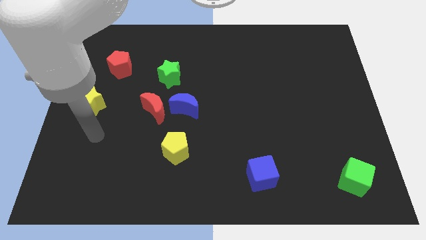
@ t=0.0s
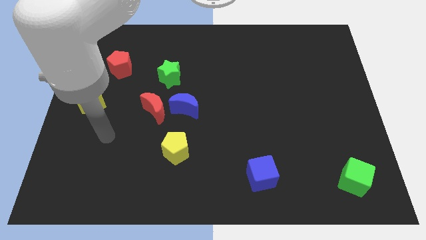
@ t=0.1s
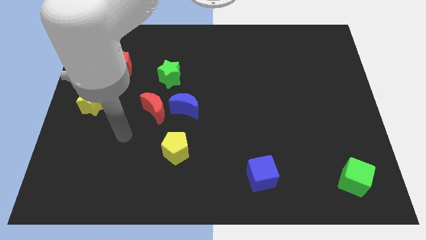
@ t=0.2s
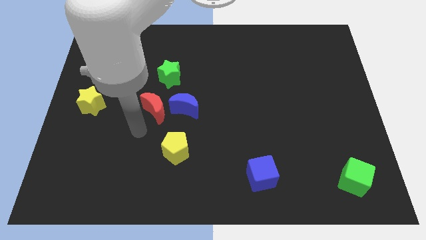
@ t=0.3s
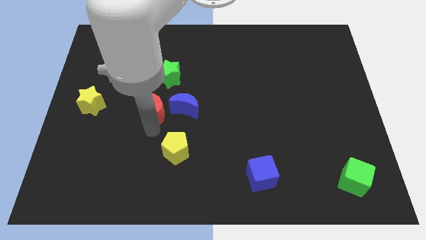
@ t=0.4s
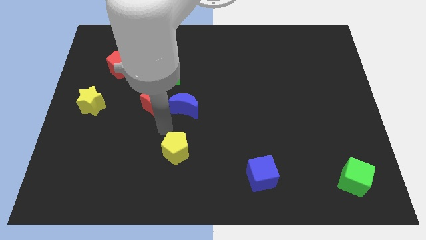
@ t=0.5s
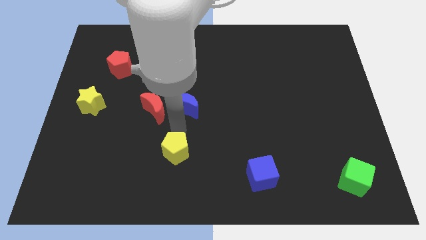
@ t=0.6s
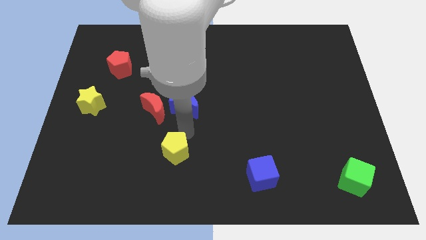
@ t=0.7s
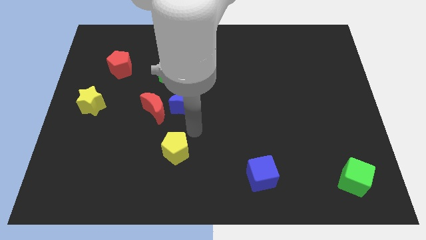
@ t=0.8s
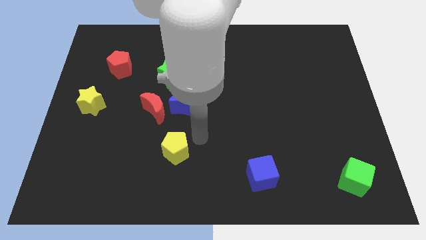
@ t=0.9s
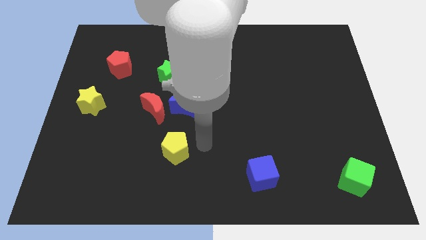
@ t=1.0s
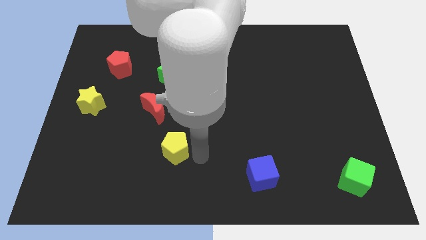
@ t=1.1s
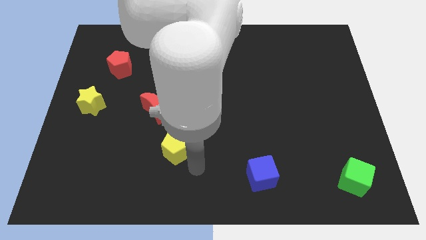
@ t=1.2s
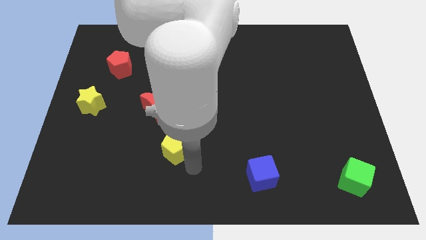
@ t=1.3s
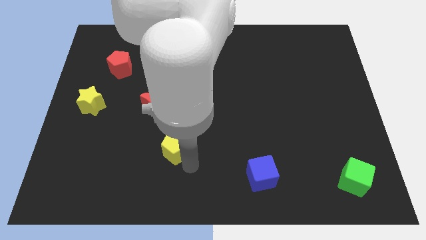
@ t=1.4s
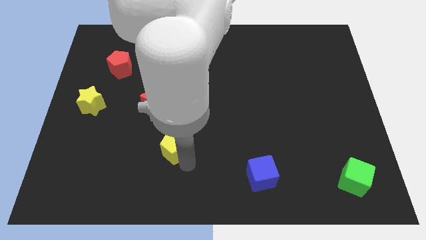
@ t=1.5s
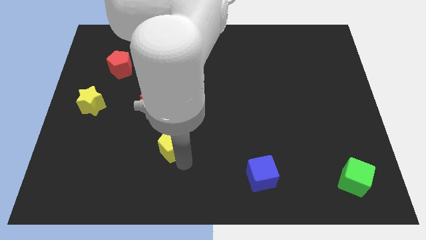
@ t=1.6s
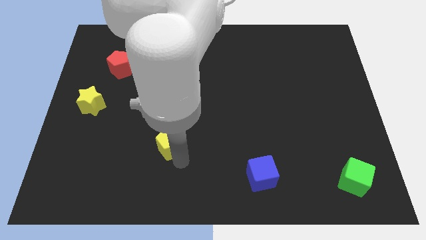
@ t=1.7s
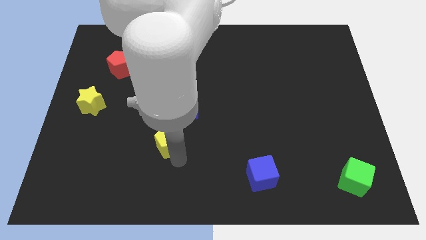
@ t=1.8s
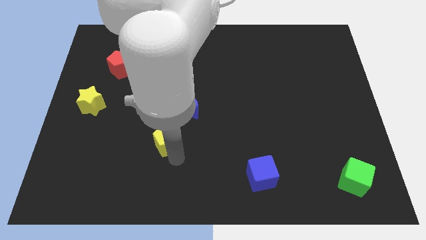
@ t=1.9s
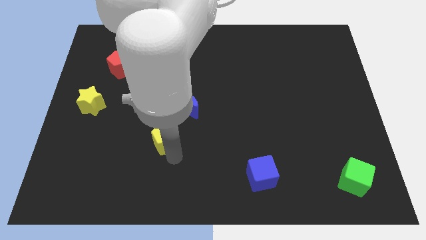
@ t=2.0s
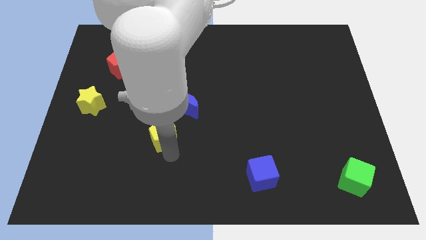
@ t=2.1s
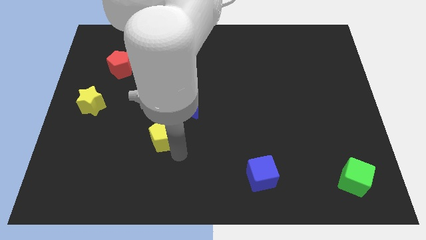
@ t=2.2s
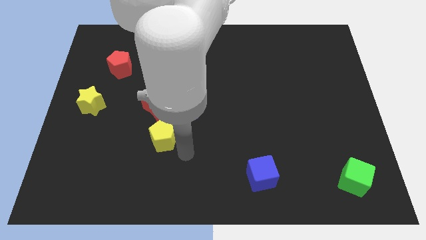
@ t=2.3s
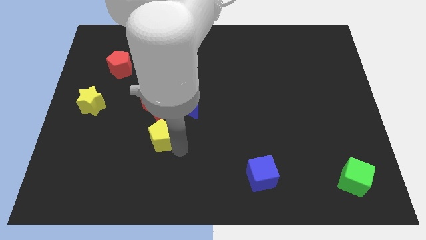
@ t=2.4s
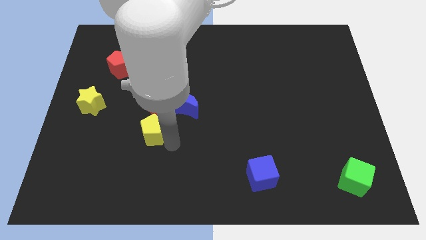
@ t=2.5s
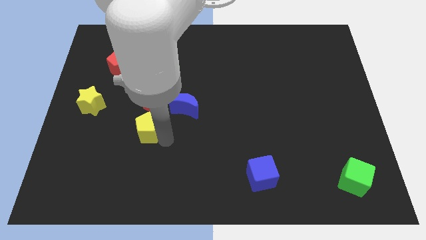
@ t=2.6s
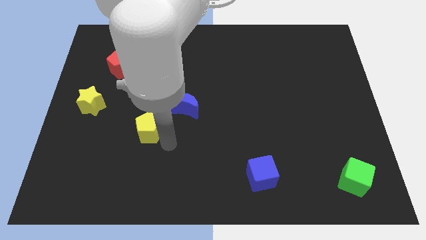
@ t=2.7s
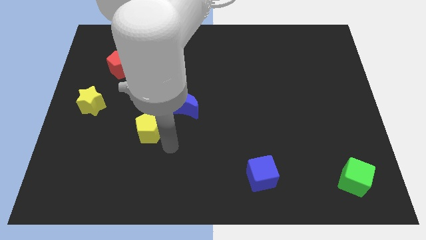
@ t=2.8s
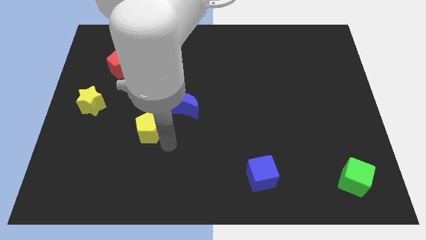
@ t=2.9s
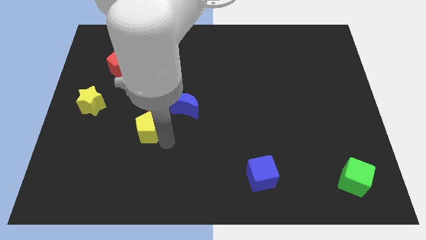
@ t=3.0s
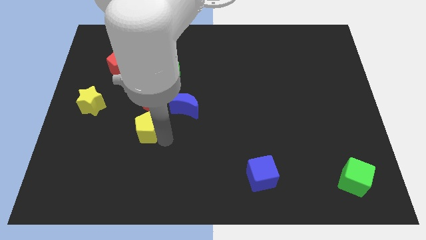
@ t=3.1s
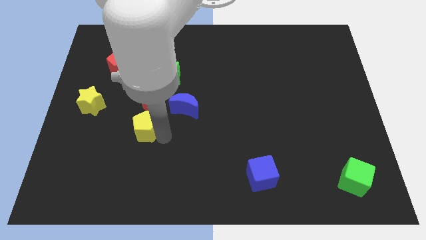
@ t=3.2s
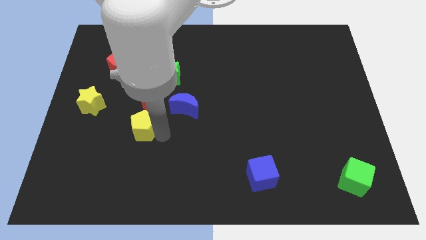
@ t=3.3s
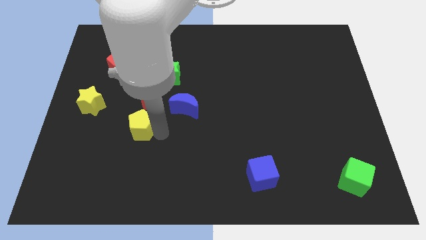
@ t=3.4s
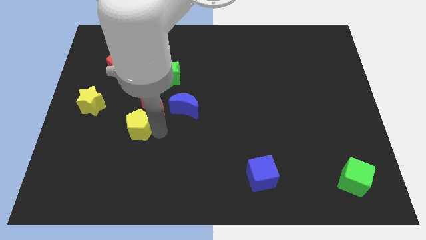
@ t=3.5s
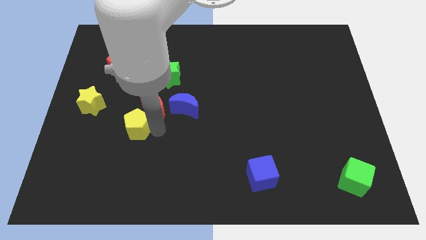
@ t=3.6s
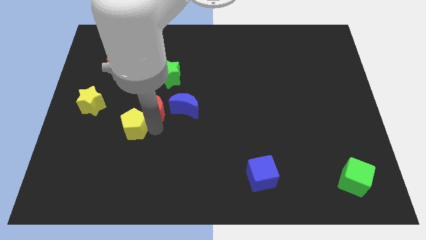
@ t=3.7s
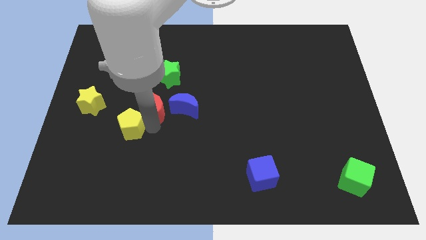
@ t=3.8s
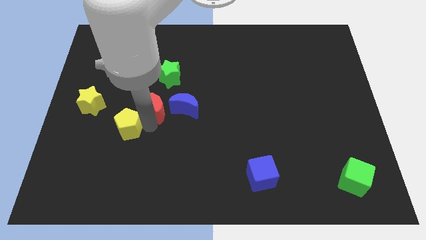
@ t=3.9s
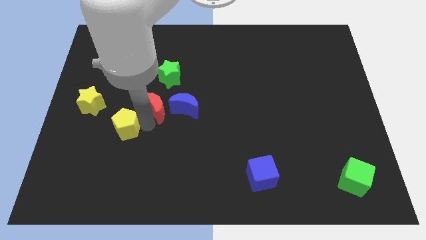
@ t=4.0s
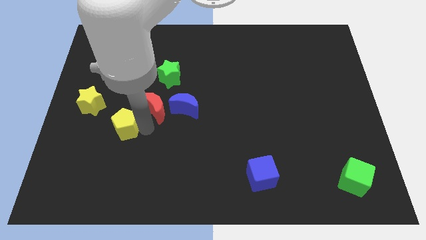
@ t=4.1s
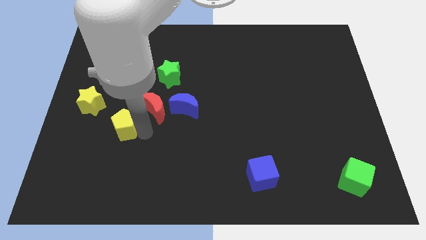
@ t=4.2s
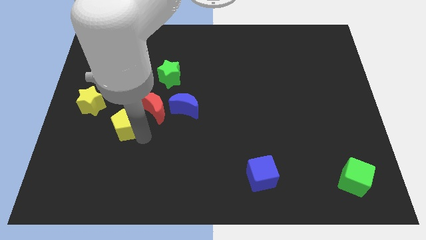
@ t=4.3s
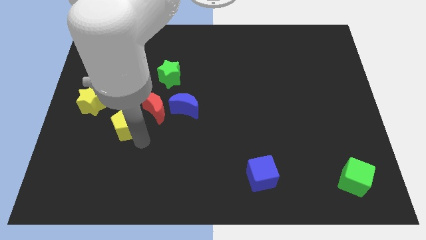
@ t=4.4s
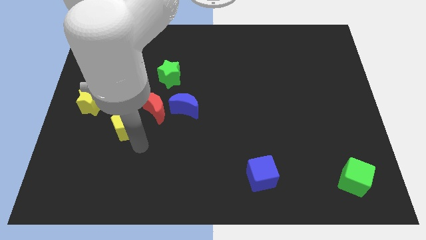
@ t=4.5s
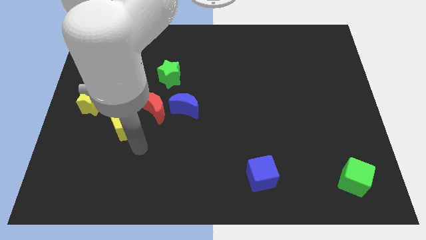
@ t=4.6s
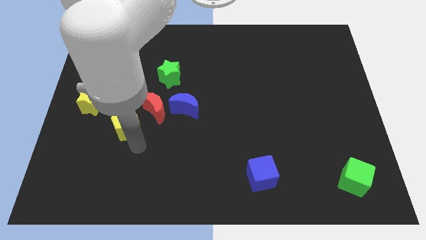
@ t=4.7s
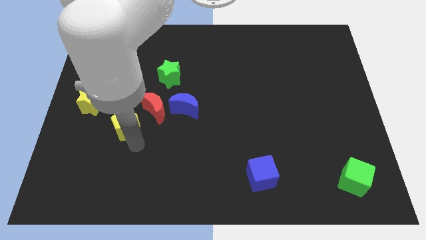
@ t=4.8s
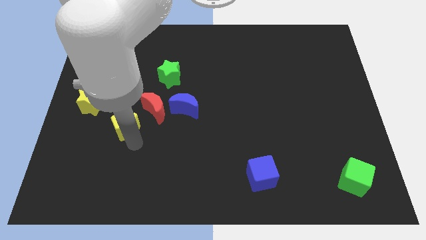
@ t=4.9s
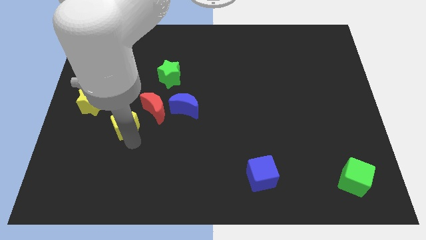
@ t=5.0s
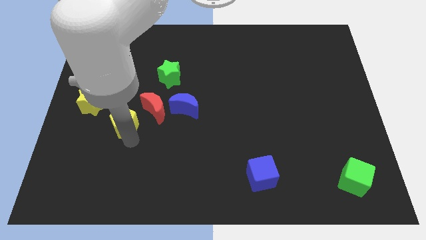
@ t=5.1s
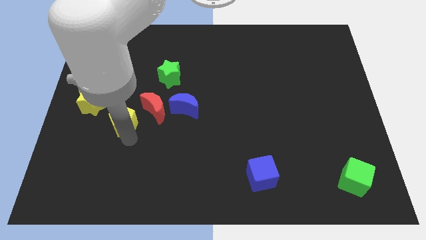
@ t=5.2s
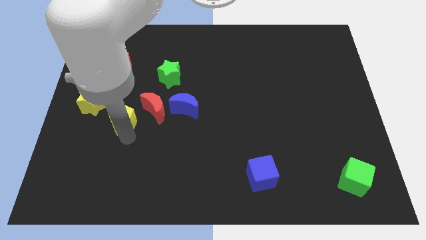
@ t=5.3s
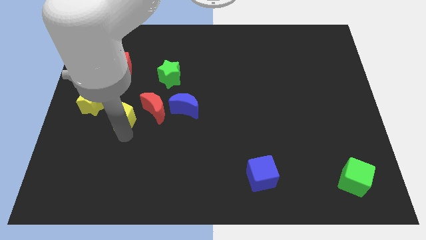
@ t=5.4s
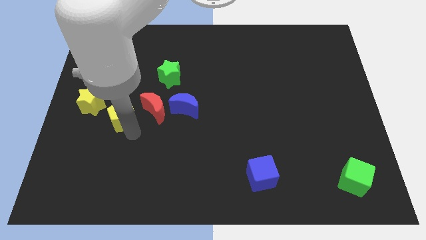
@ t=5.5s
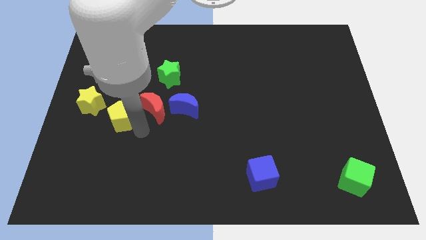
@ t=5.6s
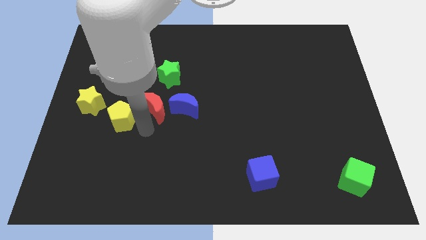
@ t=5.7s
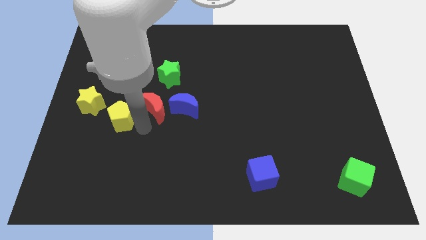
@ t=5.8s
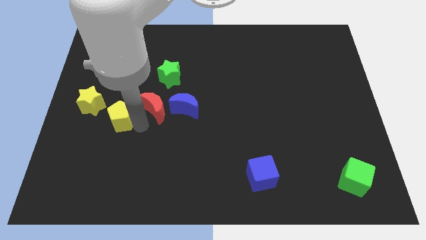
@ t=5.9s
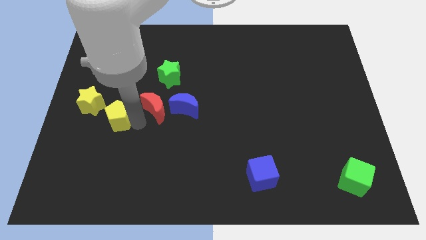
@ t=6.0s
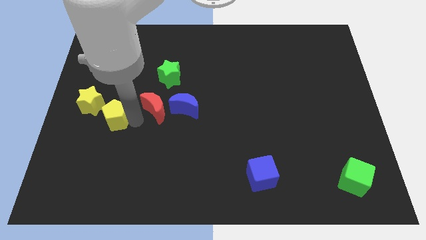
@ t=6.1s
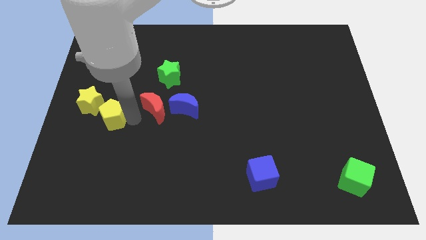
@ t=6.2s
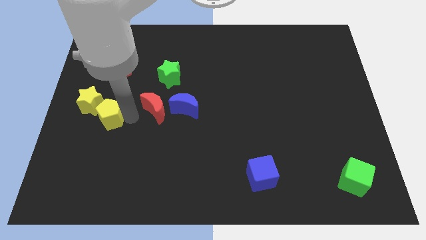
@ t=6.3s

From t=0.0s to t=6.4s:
put the yellow pentagon next to the yellow star
